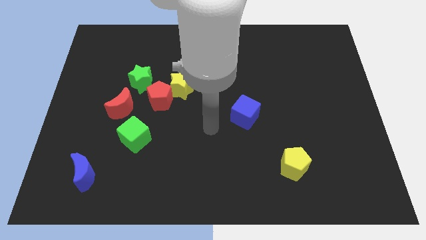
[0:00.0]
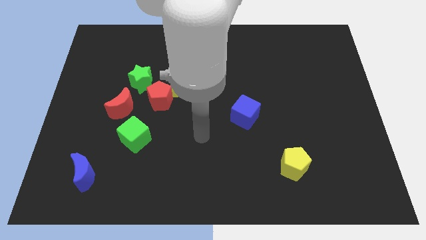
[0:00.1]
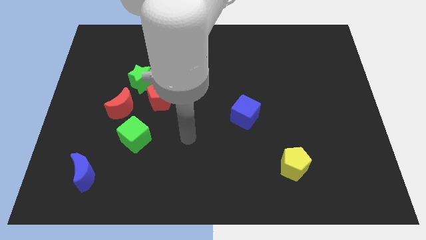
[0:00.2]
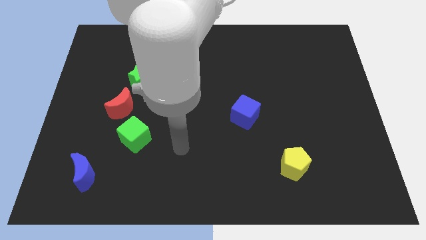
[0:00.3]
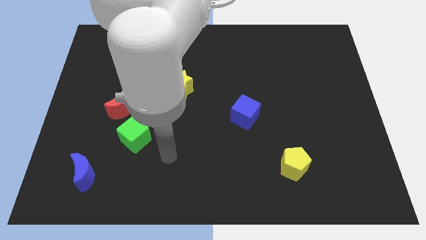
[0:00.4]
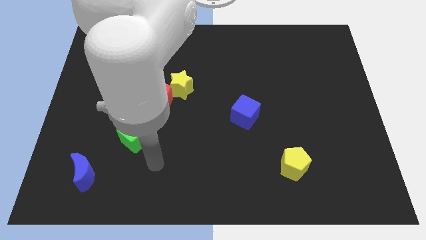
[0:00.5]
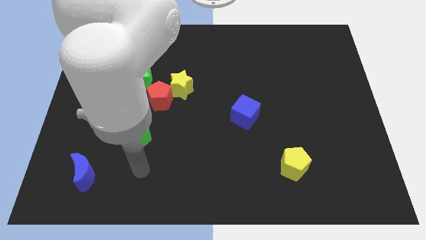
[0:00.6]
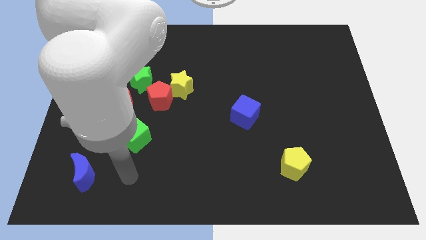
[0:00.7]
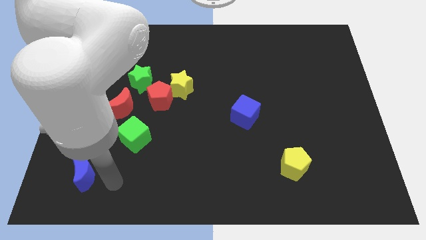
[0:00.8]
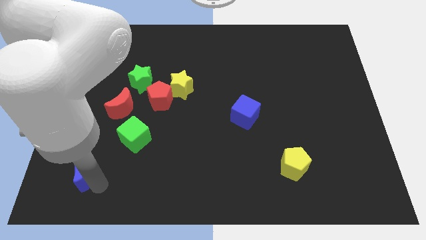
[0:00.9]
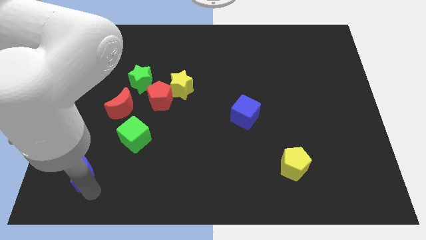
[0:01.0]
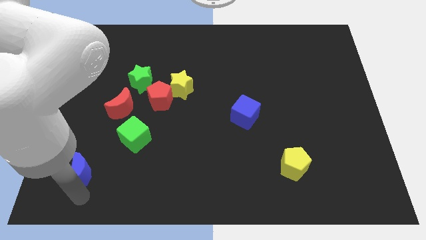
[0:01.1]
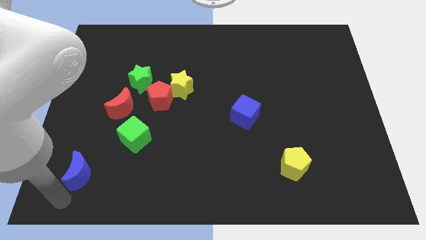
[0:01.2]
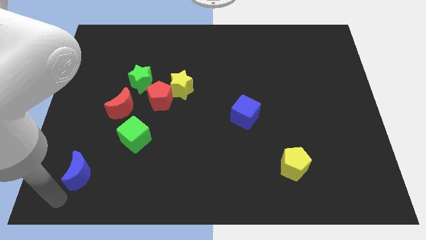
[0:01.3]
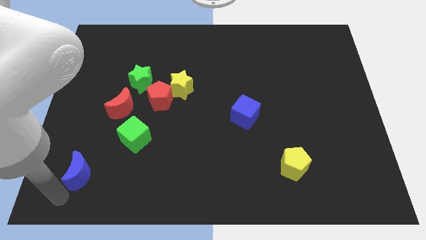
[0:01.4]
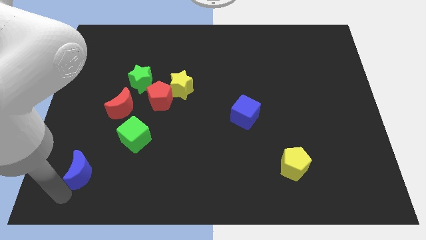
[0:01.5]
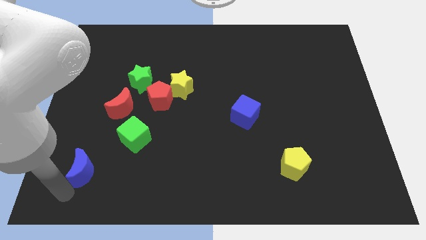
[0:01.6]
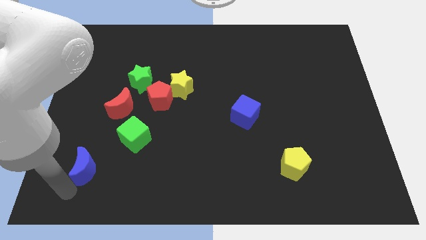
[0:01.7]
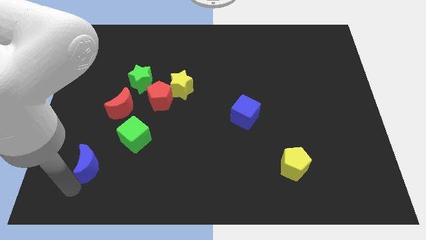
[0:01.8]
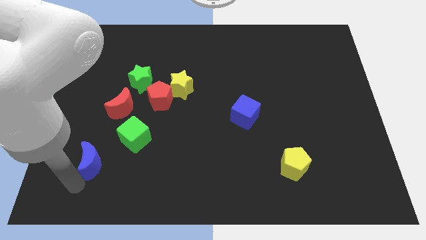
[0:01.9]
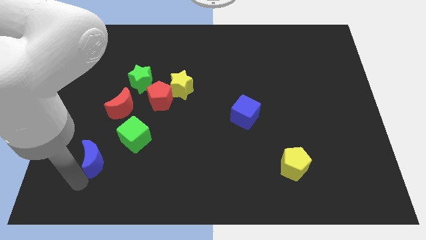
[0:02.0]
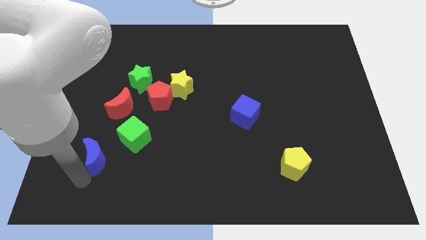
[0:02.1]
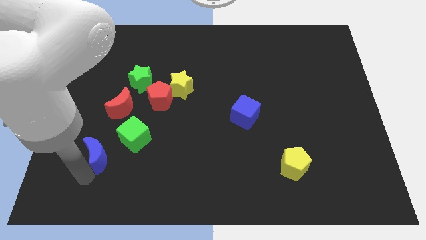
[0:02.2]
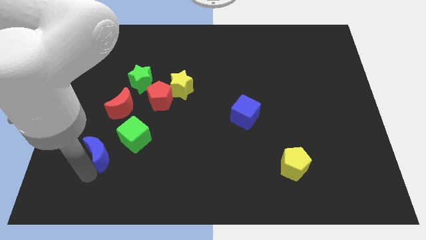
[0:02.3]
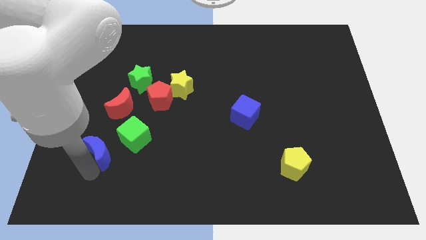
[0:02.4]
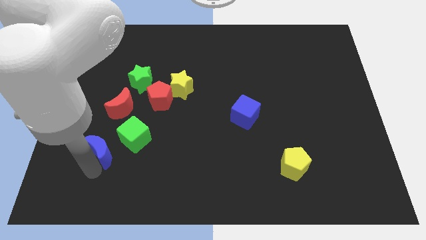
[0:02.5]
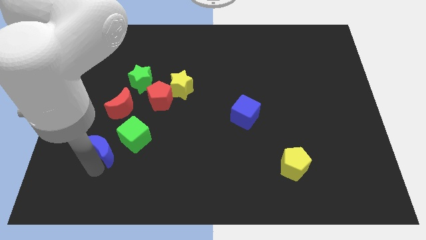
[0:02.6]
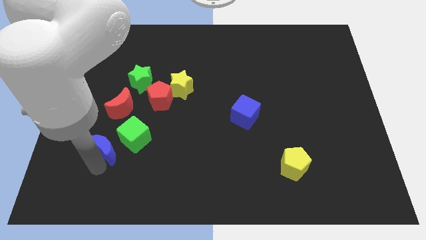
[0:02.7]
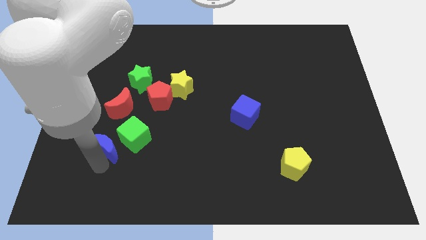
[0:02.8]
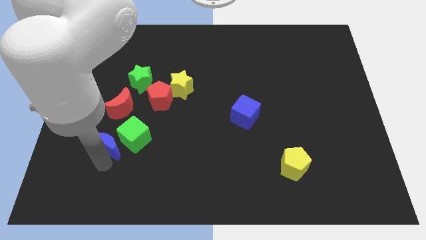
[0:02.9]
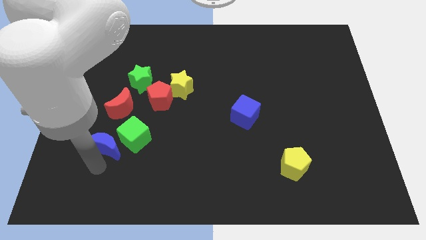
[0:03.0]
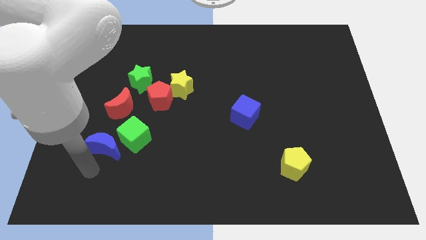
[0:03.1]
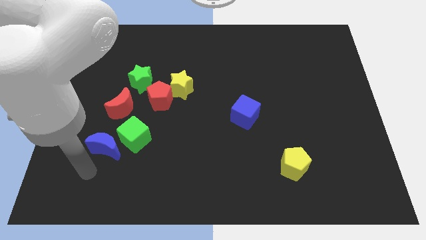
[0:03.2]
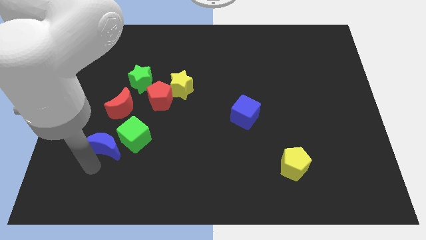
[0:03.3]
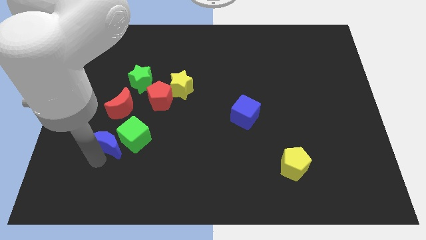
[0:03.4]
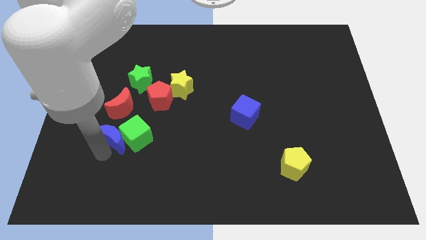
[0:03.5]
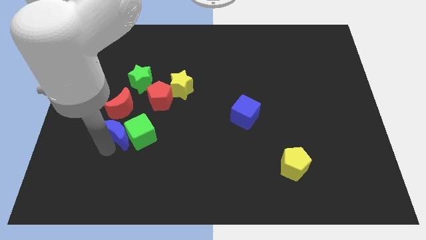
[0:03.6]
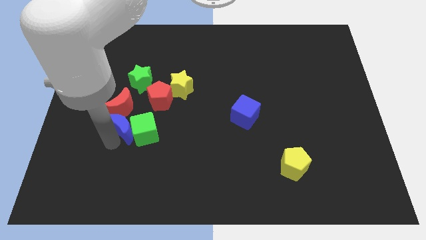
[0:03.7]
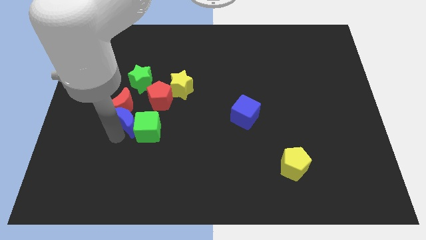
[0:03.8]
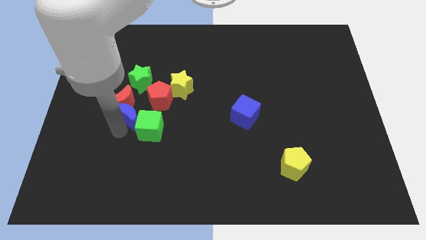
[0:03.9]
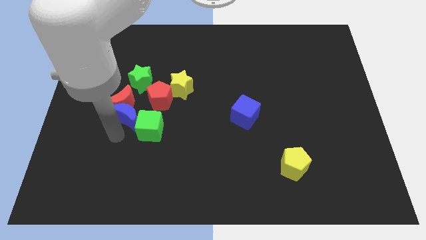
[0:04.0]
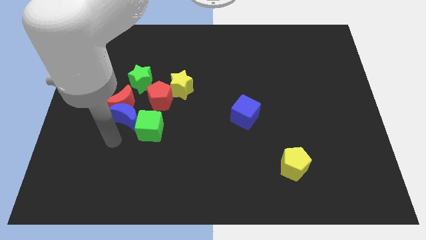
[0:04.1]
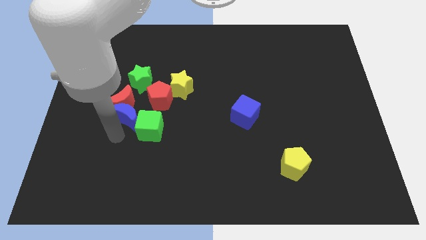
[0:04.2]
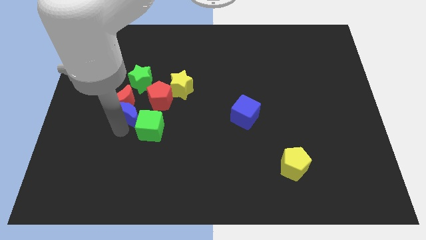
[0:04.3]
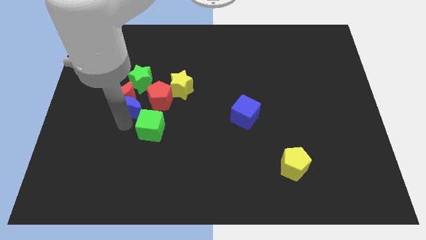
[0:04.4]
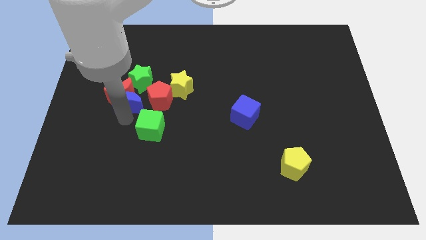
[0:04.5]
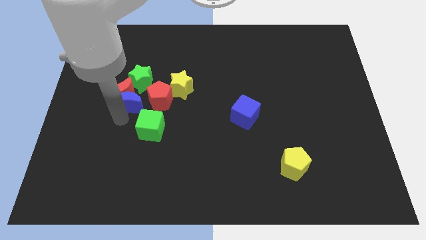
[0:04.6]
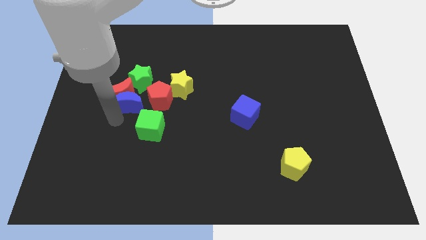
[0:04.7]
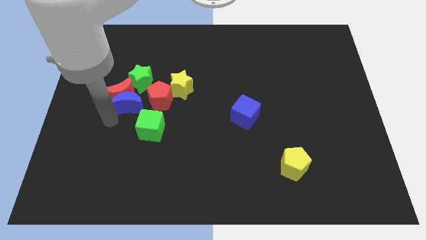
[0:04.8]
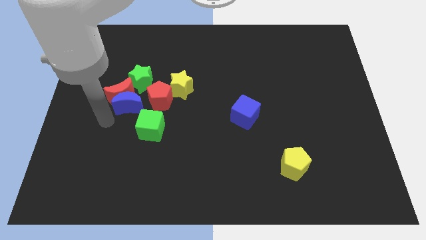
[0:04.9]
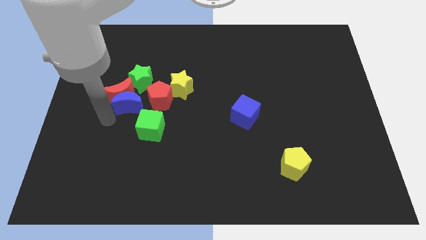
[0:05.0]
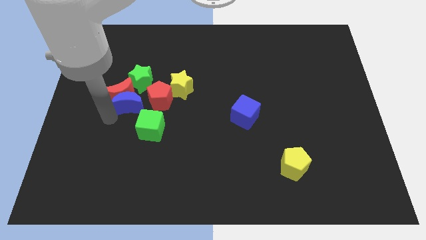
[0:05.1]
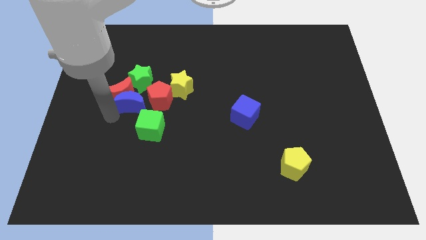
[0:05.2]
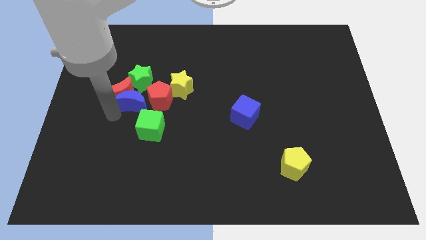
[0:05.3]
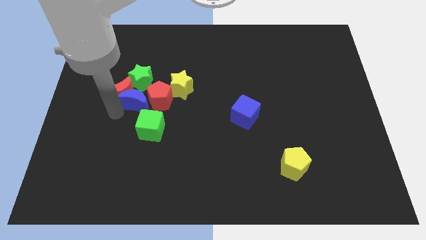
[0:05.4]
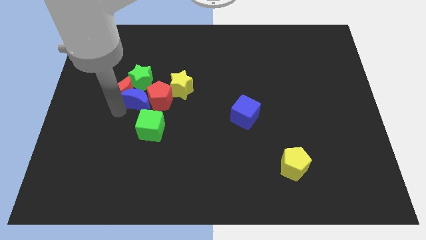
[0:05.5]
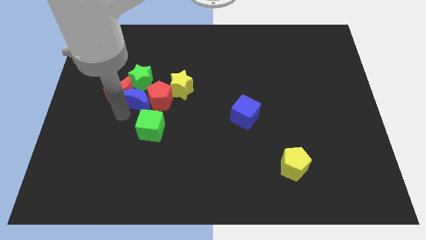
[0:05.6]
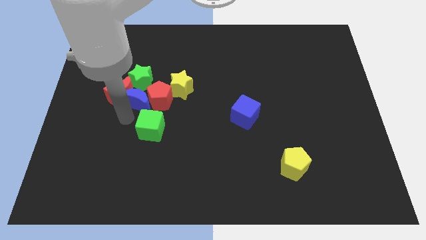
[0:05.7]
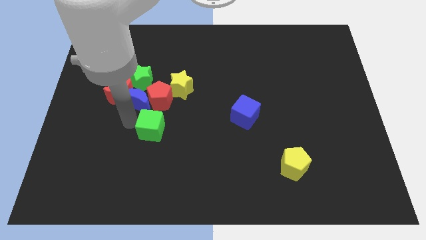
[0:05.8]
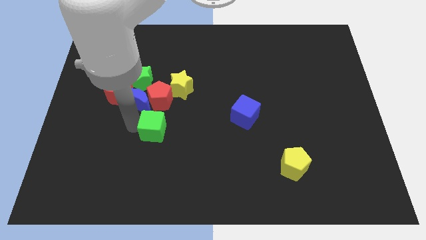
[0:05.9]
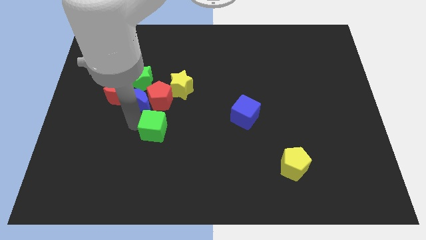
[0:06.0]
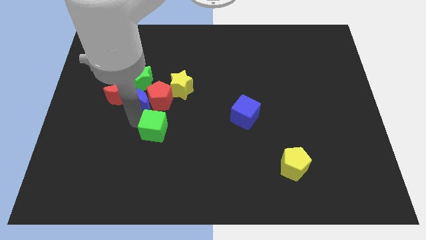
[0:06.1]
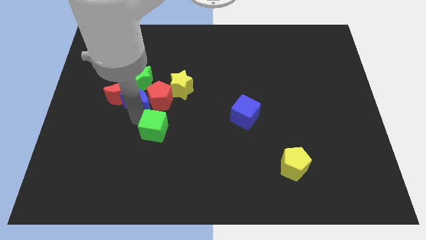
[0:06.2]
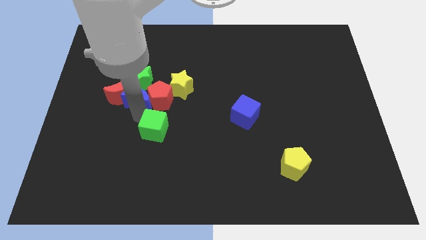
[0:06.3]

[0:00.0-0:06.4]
push the blue moon next to the green star

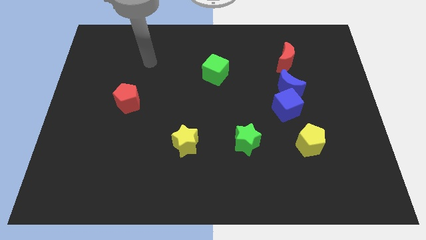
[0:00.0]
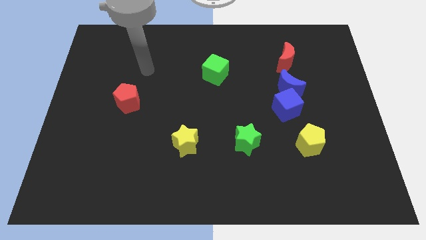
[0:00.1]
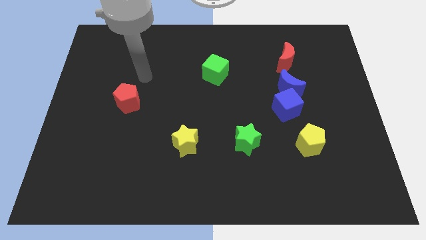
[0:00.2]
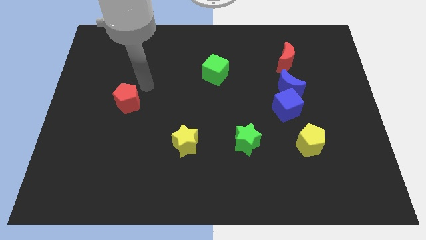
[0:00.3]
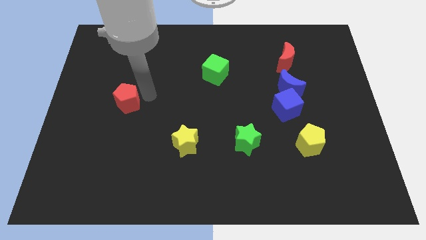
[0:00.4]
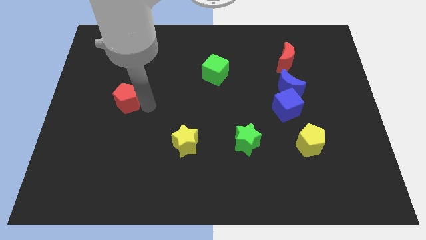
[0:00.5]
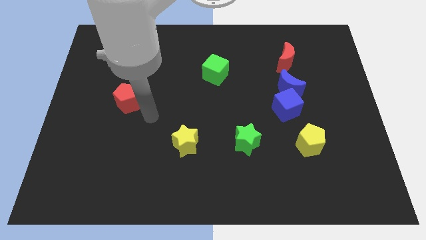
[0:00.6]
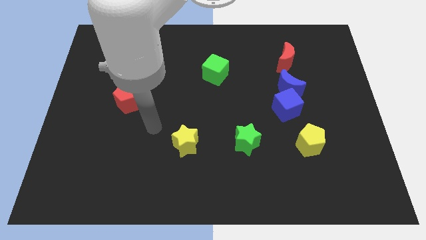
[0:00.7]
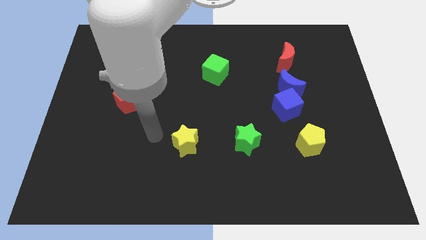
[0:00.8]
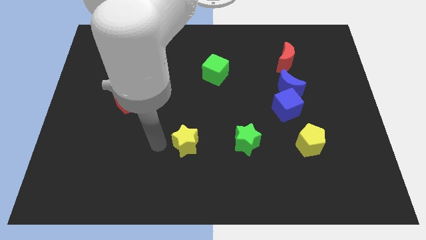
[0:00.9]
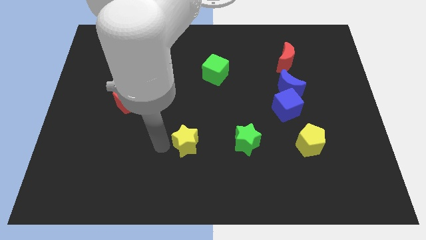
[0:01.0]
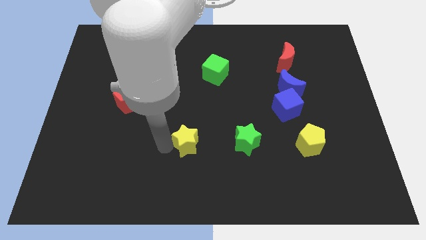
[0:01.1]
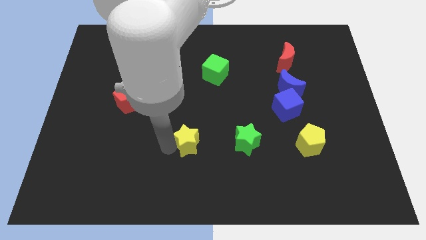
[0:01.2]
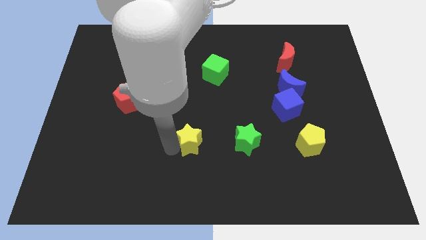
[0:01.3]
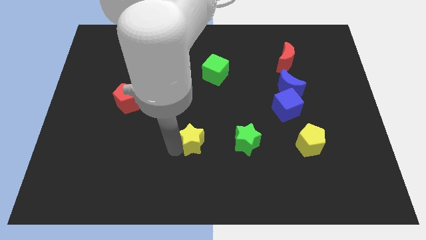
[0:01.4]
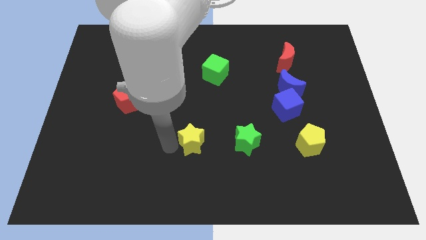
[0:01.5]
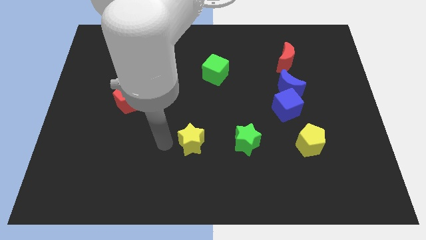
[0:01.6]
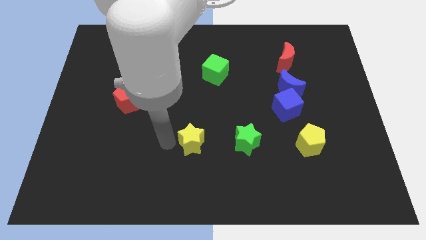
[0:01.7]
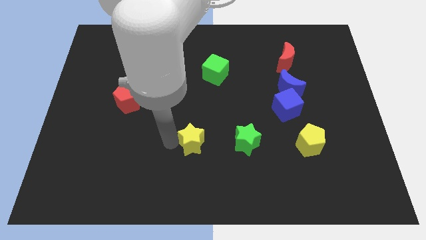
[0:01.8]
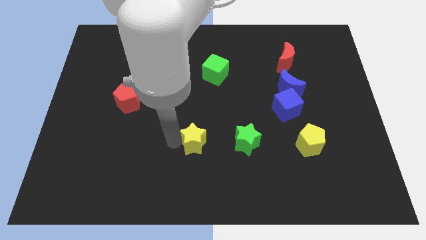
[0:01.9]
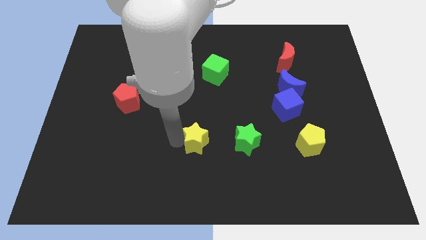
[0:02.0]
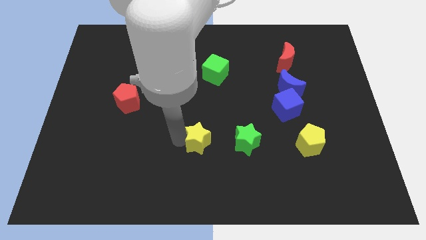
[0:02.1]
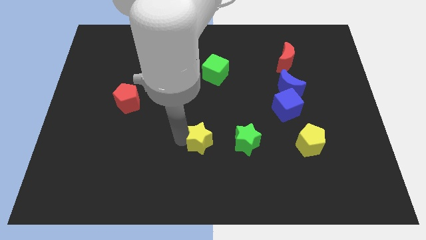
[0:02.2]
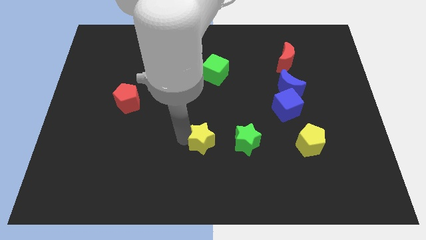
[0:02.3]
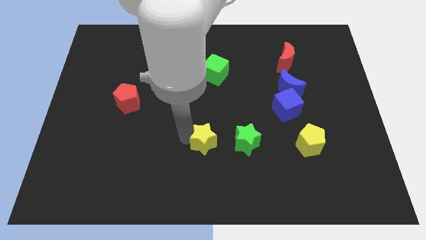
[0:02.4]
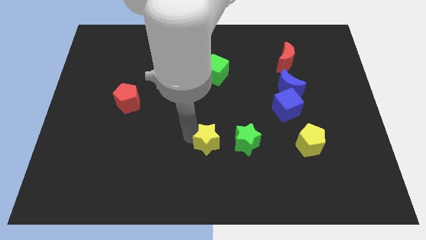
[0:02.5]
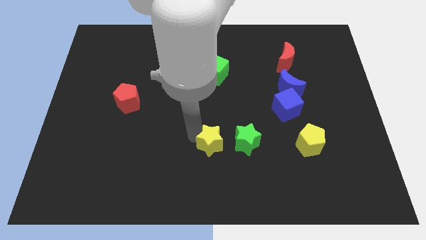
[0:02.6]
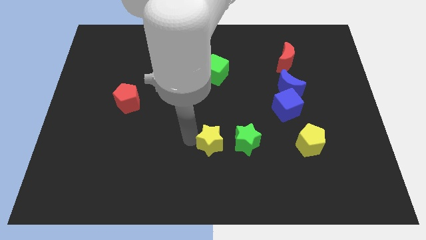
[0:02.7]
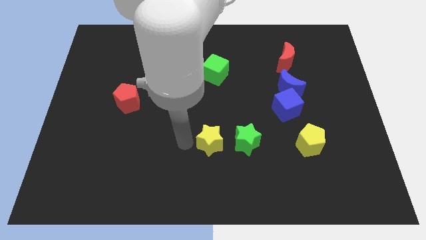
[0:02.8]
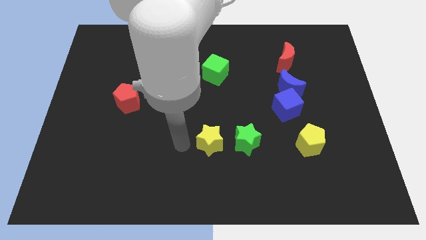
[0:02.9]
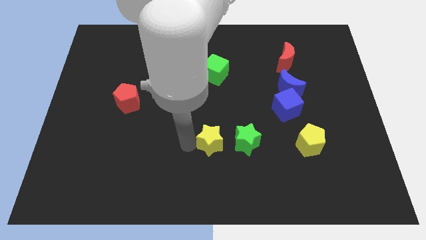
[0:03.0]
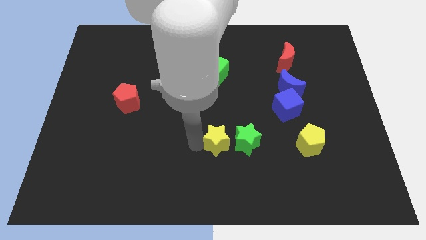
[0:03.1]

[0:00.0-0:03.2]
move the yellow star close to the green star
